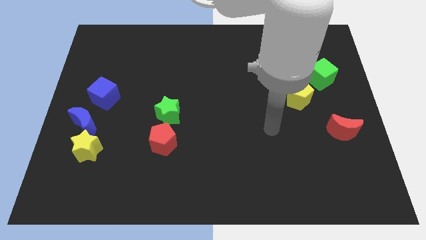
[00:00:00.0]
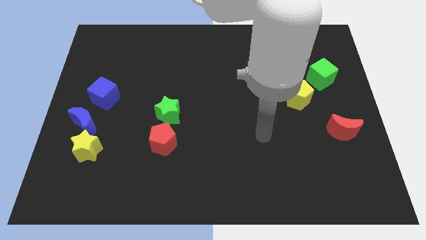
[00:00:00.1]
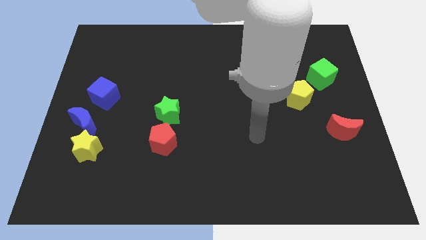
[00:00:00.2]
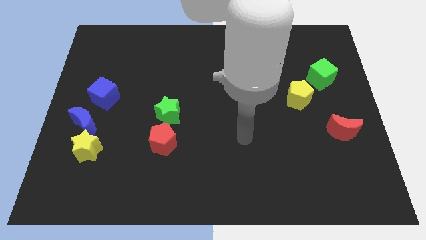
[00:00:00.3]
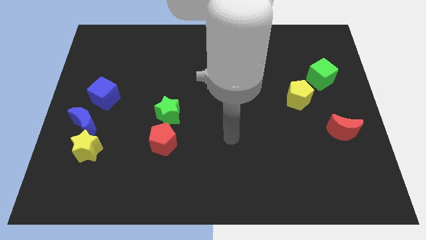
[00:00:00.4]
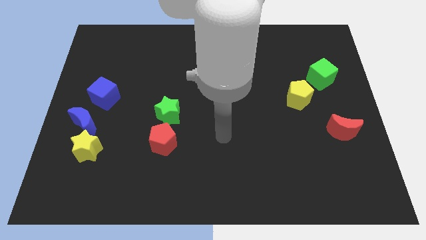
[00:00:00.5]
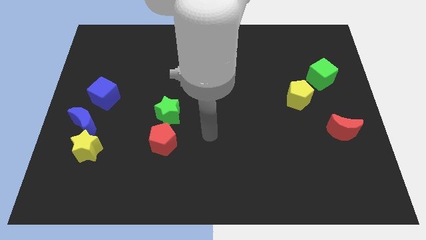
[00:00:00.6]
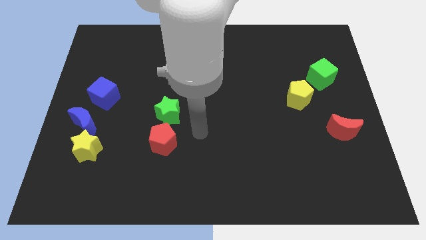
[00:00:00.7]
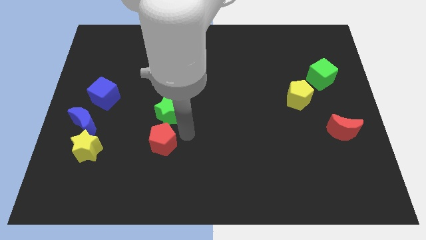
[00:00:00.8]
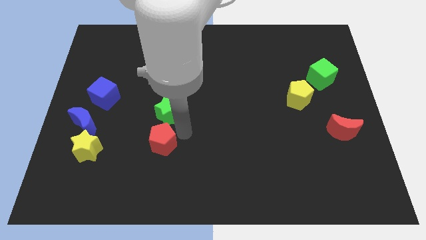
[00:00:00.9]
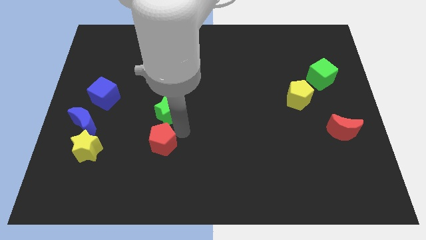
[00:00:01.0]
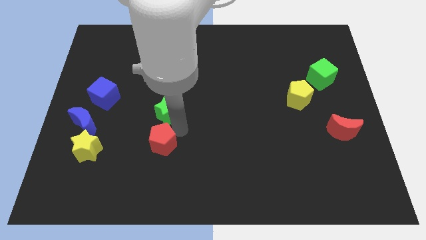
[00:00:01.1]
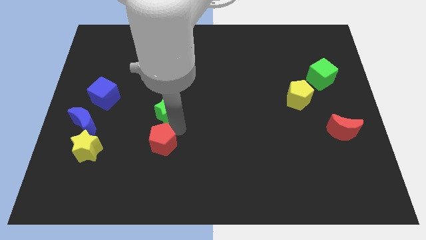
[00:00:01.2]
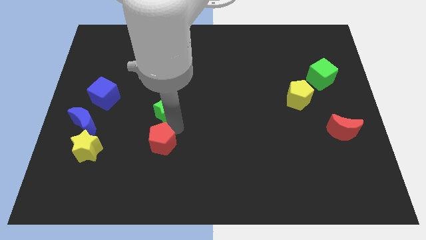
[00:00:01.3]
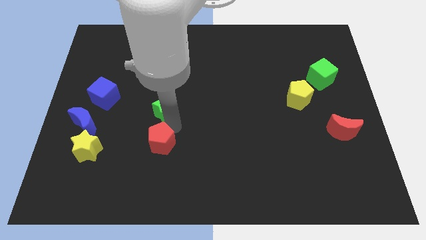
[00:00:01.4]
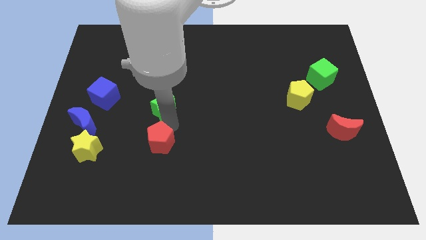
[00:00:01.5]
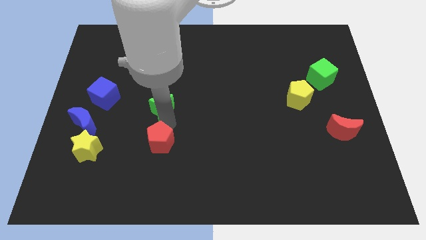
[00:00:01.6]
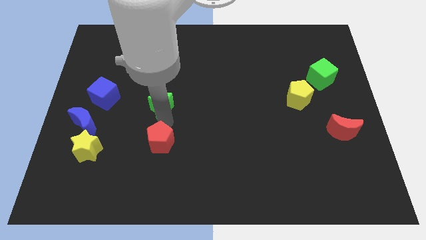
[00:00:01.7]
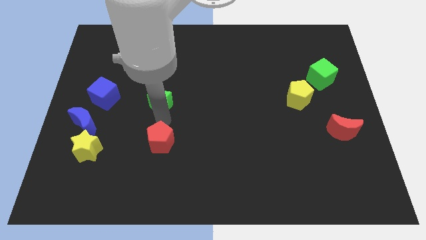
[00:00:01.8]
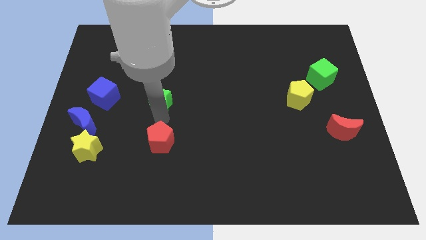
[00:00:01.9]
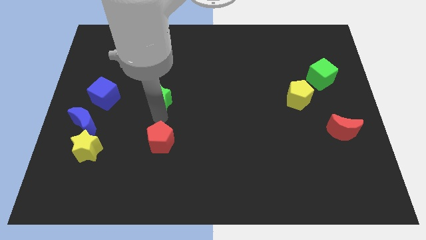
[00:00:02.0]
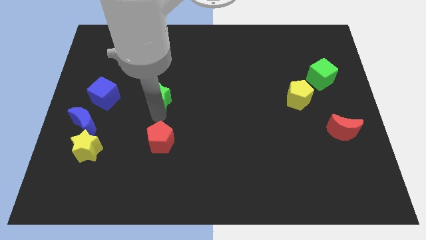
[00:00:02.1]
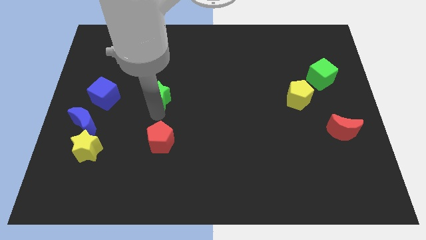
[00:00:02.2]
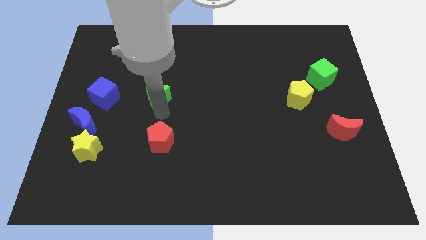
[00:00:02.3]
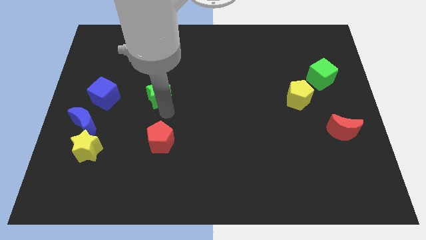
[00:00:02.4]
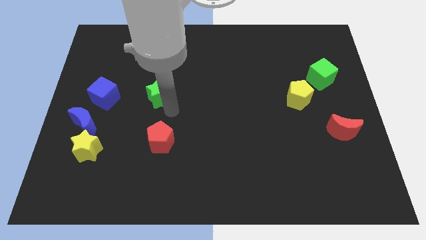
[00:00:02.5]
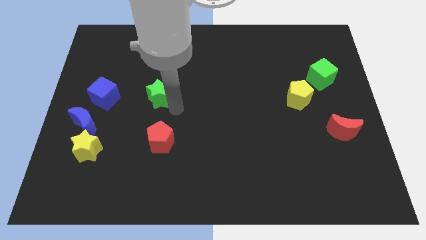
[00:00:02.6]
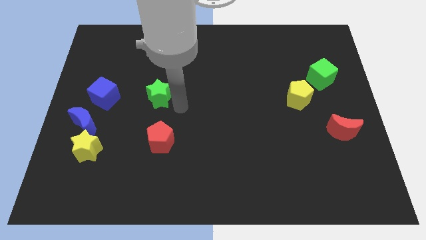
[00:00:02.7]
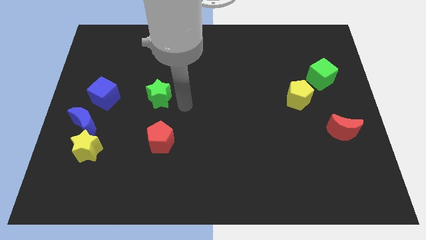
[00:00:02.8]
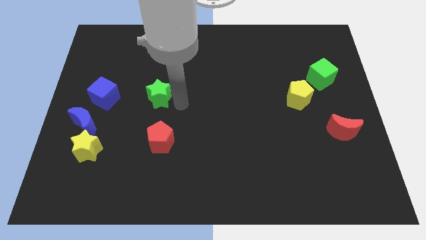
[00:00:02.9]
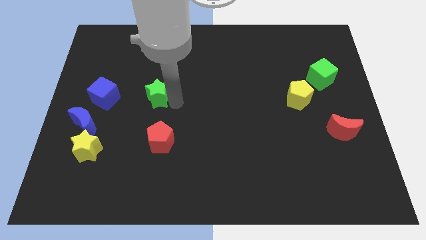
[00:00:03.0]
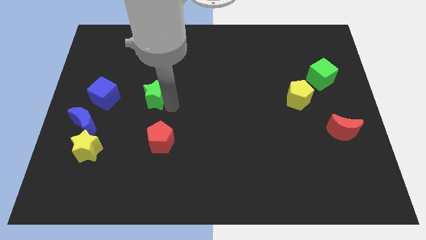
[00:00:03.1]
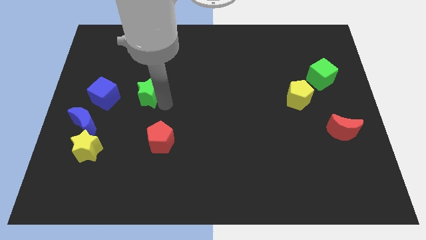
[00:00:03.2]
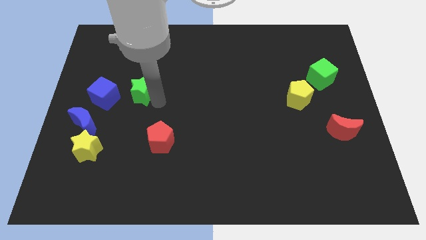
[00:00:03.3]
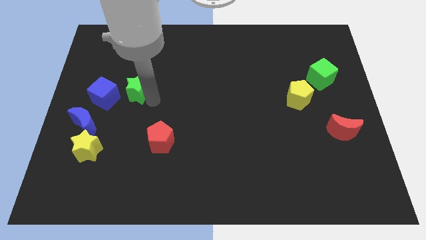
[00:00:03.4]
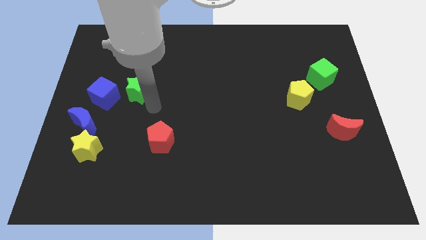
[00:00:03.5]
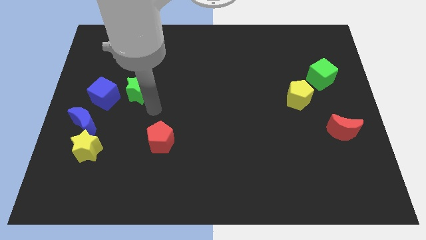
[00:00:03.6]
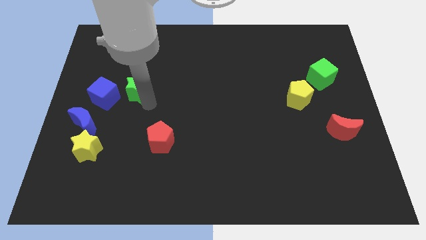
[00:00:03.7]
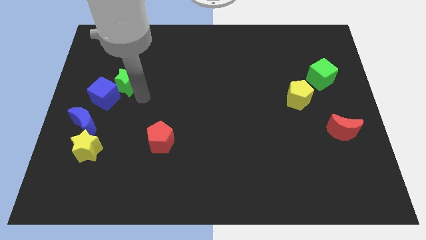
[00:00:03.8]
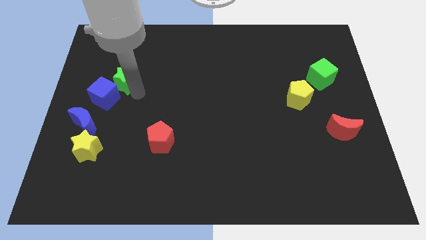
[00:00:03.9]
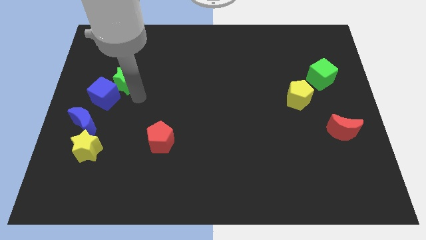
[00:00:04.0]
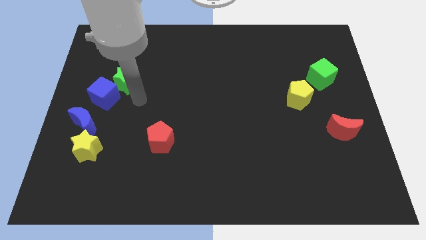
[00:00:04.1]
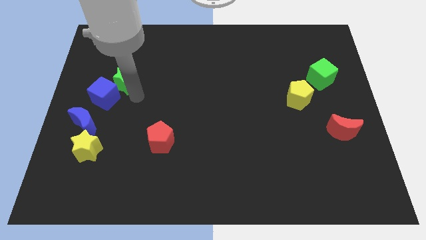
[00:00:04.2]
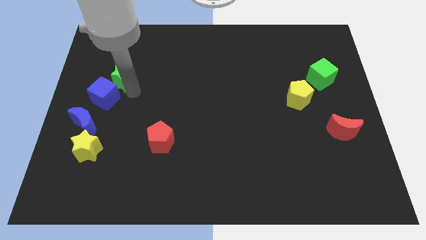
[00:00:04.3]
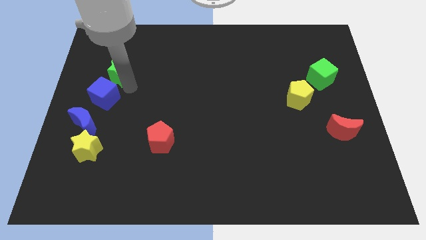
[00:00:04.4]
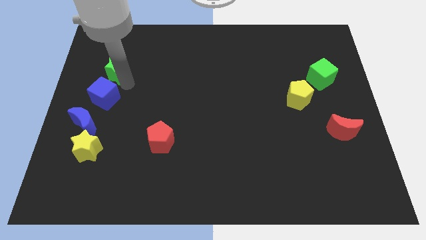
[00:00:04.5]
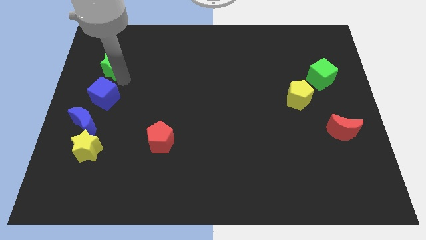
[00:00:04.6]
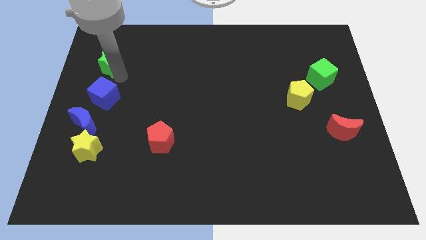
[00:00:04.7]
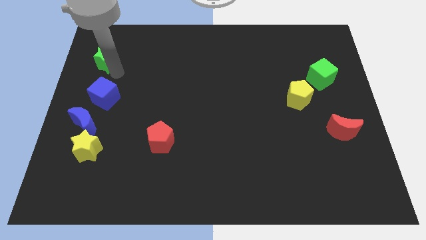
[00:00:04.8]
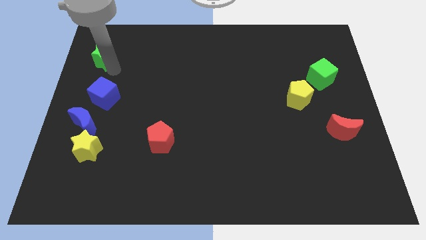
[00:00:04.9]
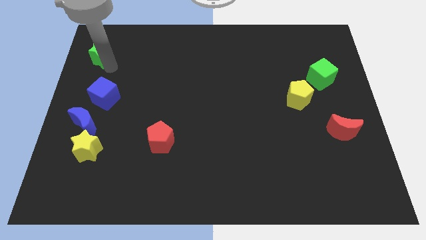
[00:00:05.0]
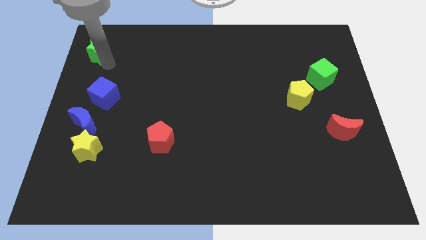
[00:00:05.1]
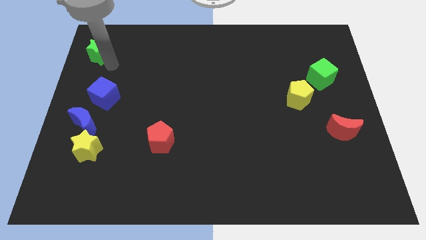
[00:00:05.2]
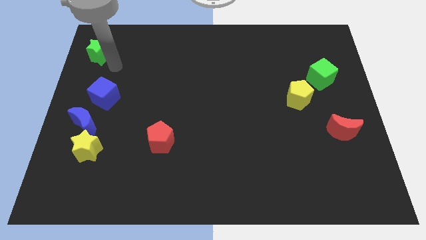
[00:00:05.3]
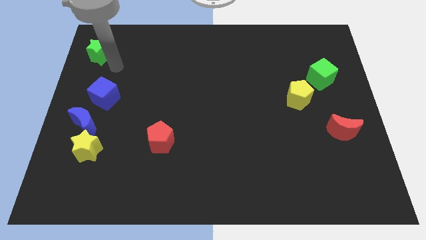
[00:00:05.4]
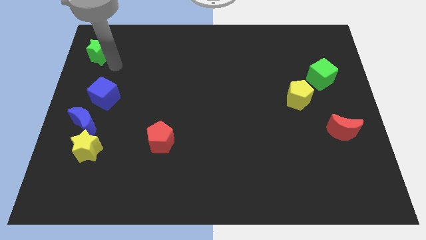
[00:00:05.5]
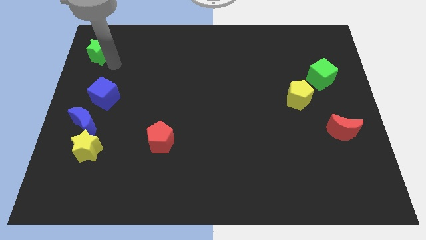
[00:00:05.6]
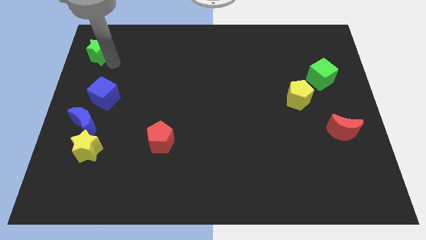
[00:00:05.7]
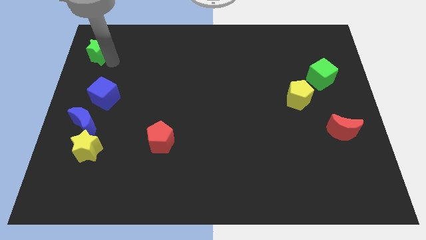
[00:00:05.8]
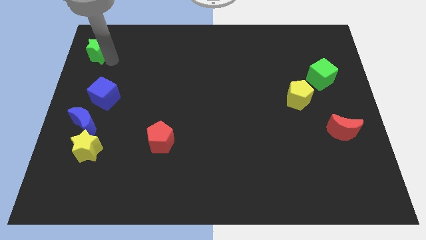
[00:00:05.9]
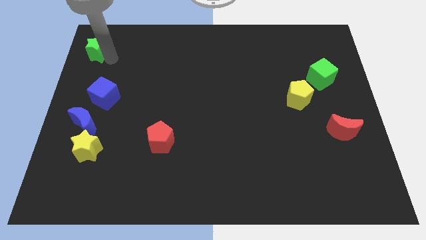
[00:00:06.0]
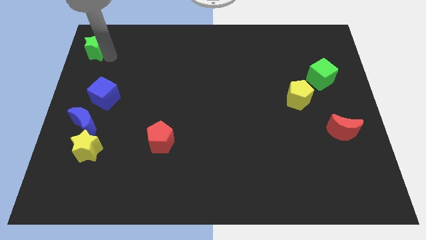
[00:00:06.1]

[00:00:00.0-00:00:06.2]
move the green star to the top left
